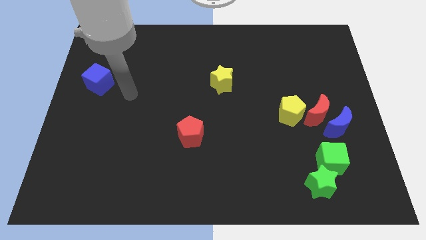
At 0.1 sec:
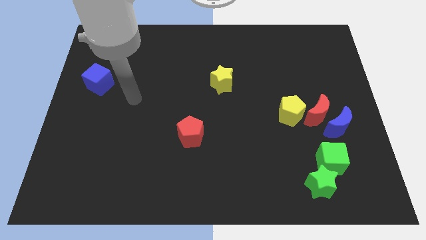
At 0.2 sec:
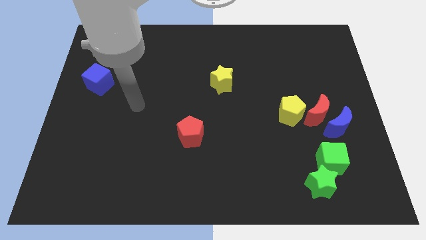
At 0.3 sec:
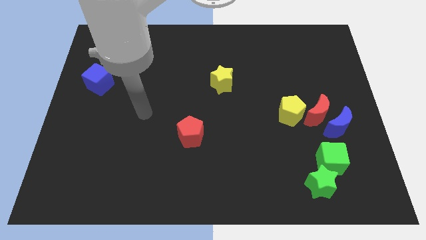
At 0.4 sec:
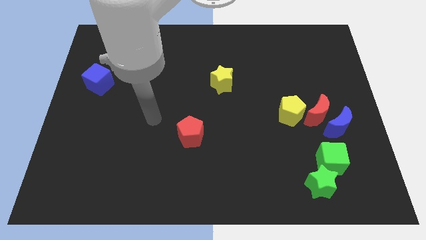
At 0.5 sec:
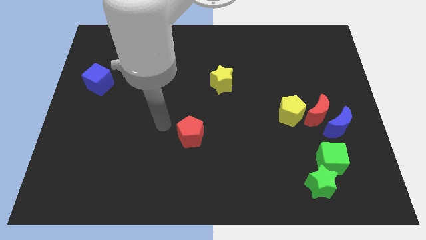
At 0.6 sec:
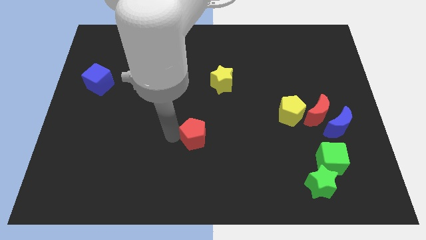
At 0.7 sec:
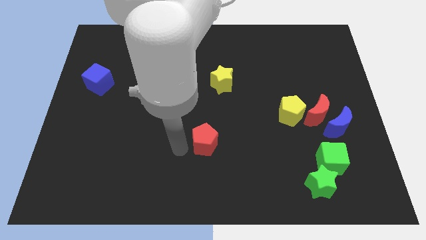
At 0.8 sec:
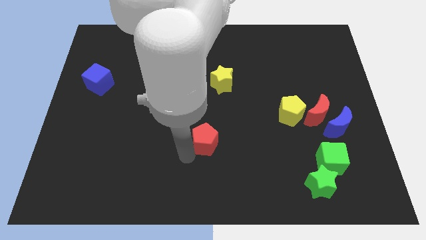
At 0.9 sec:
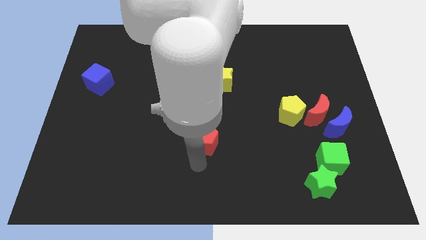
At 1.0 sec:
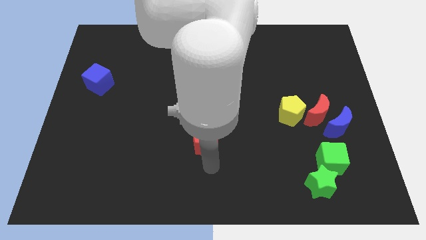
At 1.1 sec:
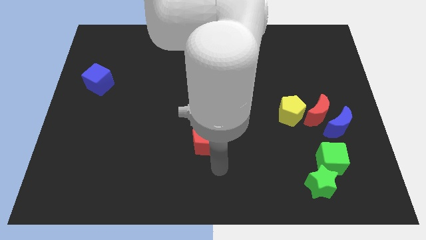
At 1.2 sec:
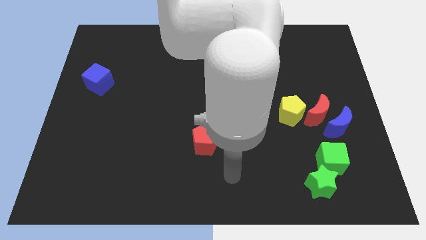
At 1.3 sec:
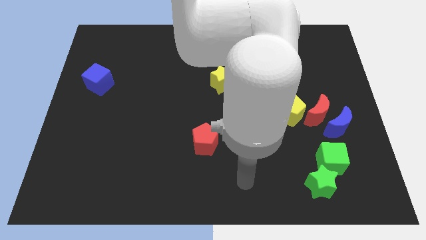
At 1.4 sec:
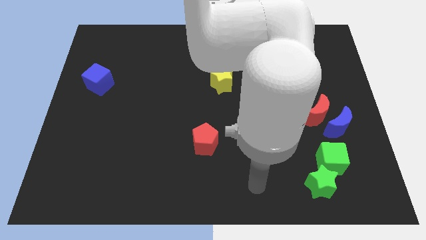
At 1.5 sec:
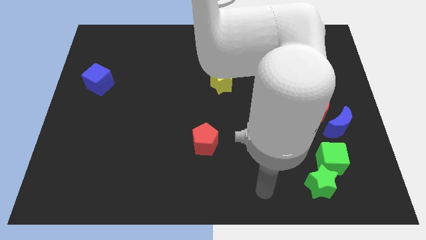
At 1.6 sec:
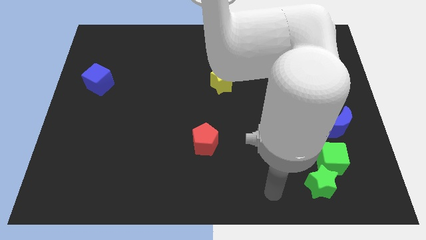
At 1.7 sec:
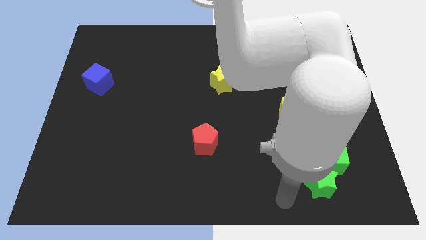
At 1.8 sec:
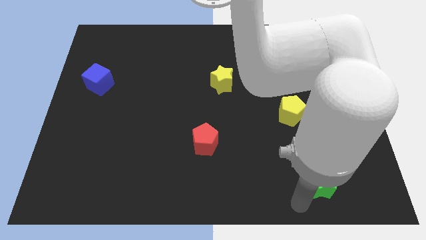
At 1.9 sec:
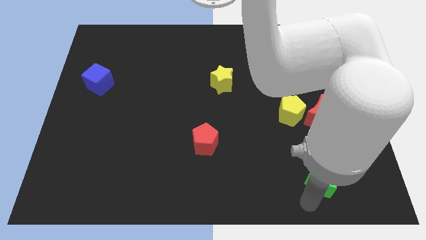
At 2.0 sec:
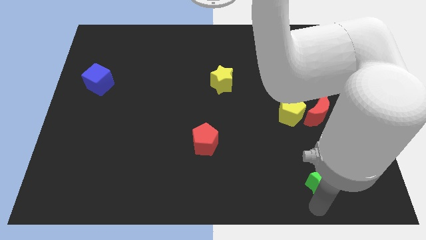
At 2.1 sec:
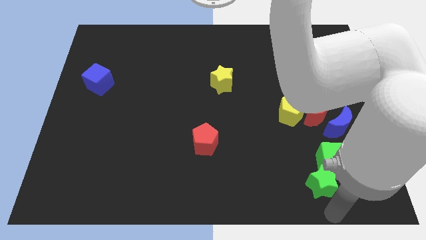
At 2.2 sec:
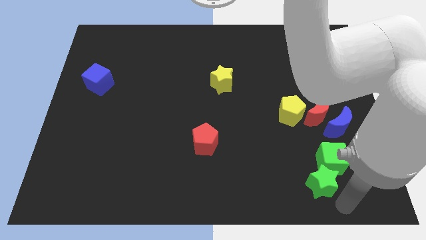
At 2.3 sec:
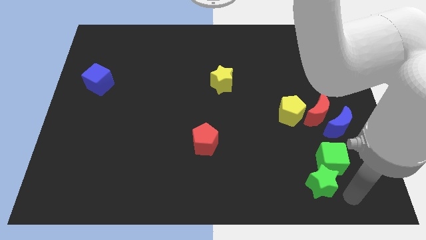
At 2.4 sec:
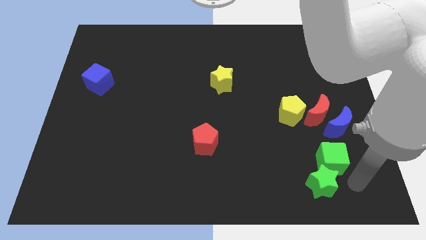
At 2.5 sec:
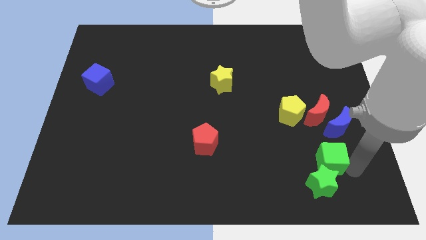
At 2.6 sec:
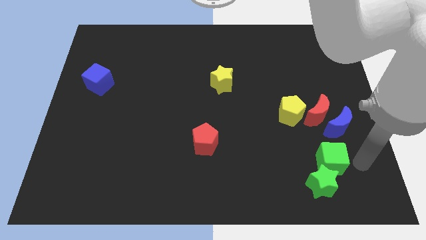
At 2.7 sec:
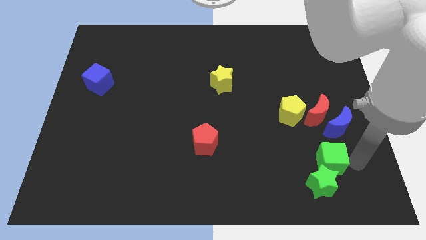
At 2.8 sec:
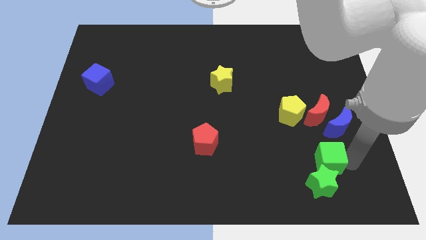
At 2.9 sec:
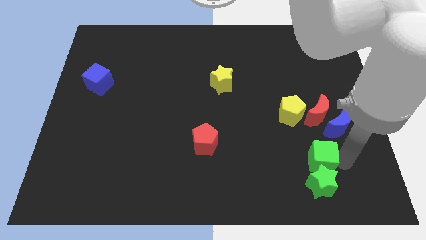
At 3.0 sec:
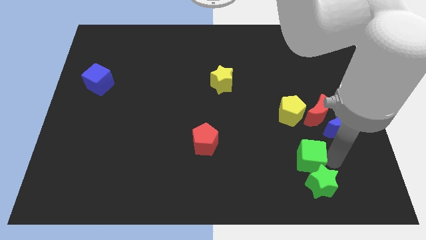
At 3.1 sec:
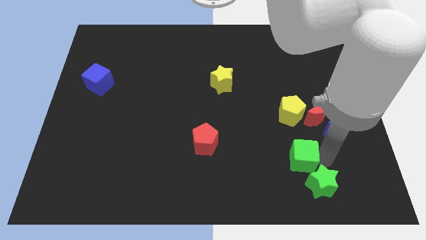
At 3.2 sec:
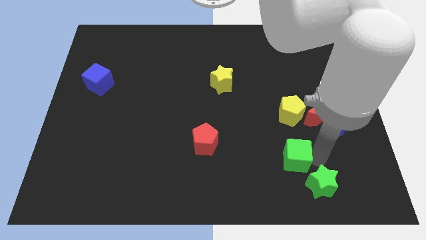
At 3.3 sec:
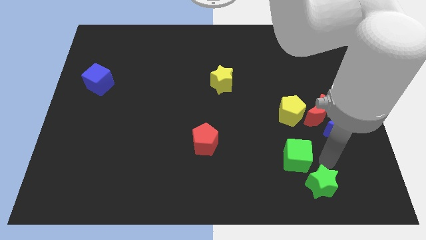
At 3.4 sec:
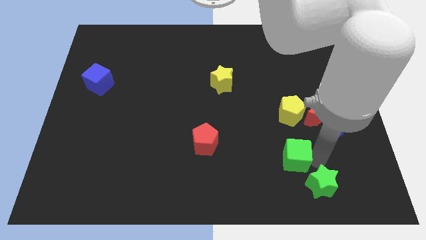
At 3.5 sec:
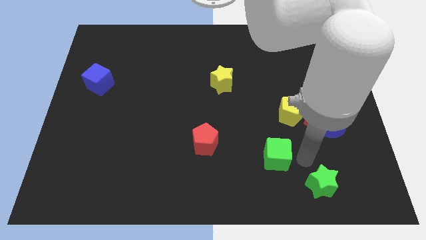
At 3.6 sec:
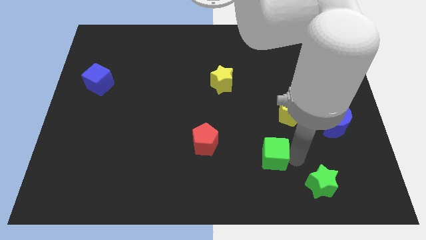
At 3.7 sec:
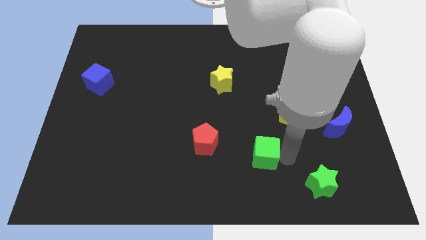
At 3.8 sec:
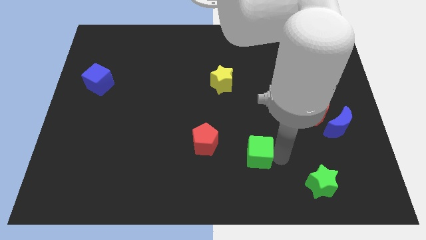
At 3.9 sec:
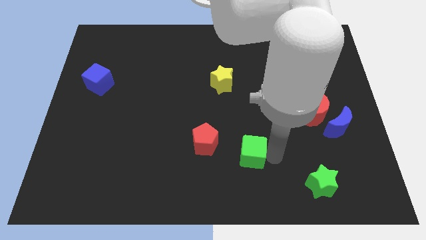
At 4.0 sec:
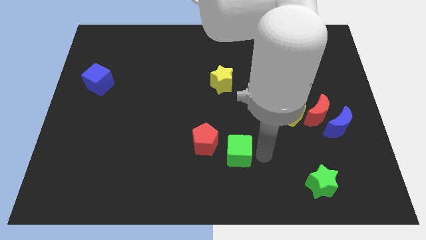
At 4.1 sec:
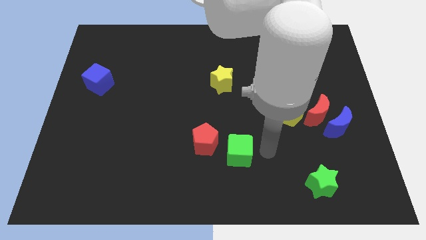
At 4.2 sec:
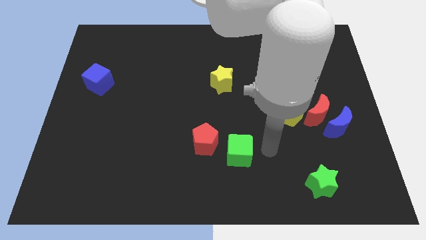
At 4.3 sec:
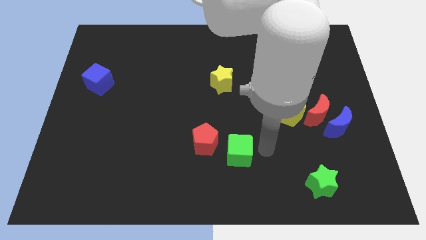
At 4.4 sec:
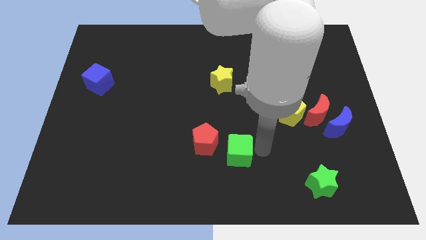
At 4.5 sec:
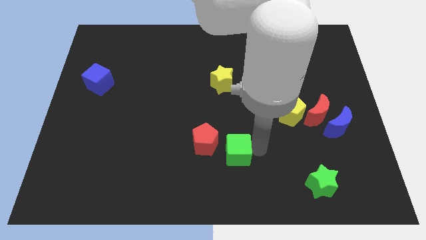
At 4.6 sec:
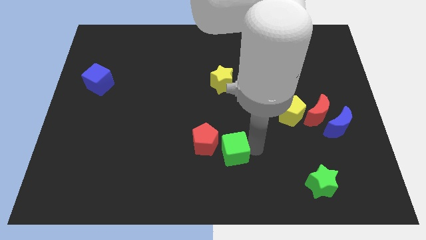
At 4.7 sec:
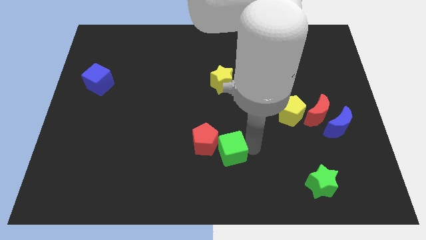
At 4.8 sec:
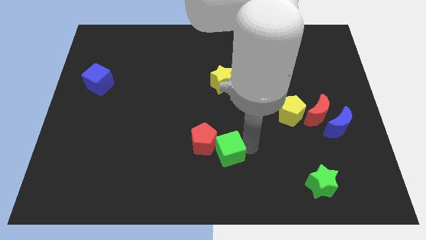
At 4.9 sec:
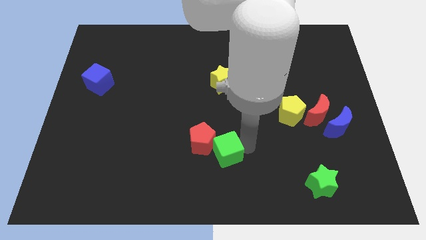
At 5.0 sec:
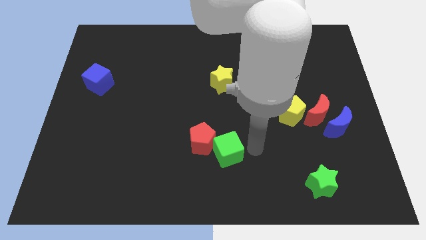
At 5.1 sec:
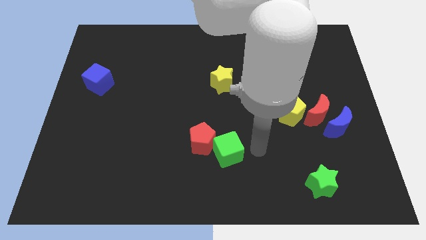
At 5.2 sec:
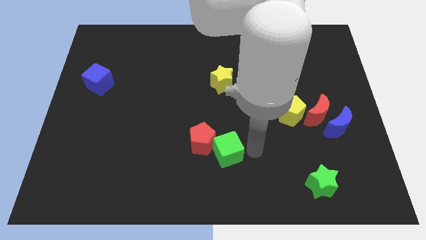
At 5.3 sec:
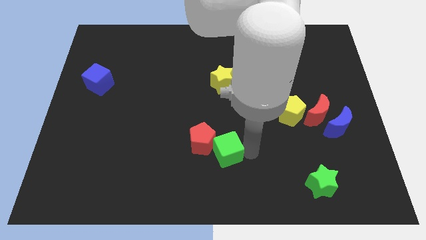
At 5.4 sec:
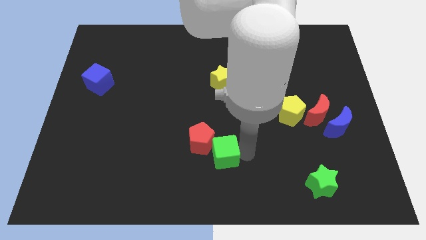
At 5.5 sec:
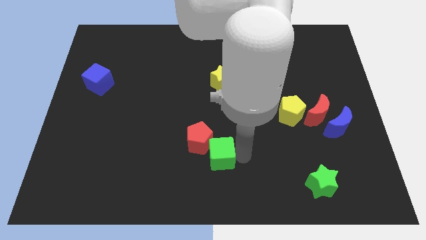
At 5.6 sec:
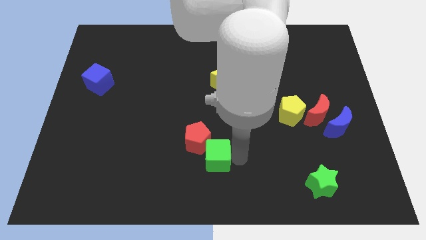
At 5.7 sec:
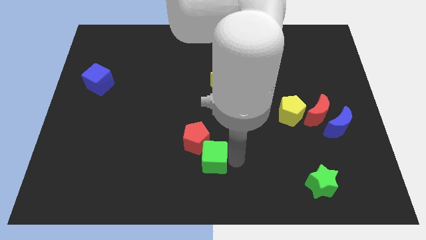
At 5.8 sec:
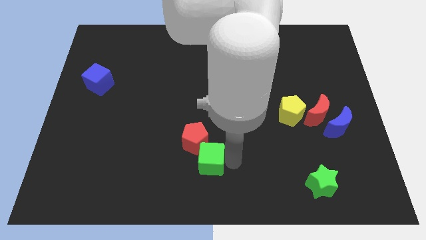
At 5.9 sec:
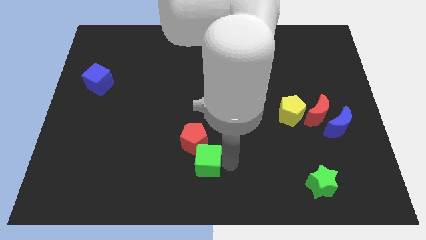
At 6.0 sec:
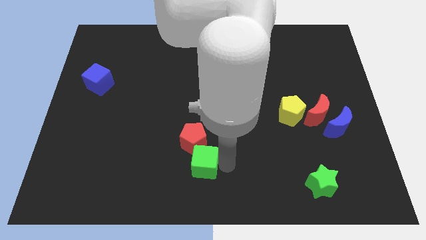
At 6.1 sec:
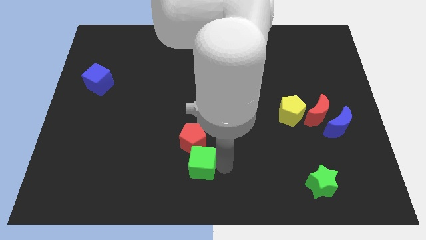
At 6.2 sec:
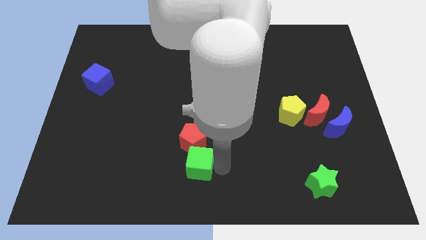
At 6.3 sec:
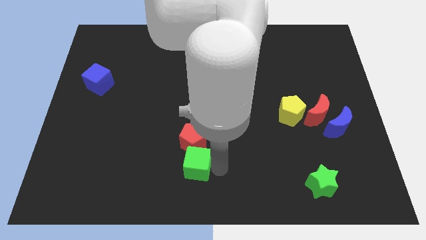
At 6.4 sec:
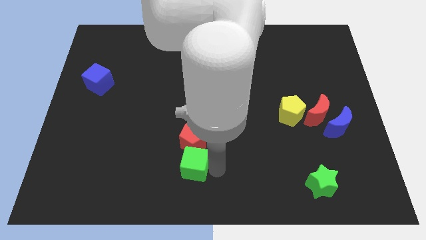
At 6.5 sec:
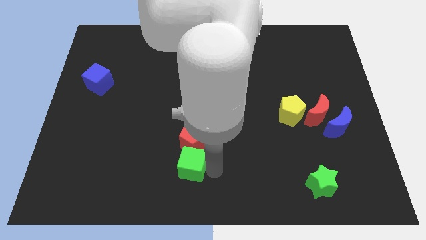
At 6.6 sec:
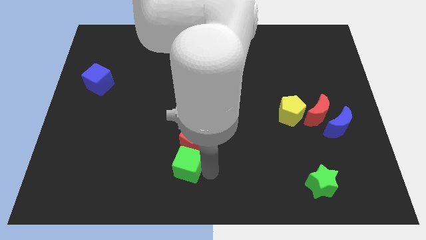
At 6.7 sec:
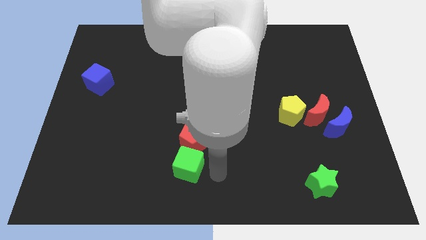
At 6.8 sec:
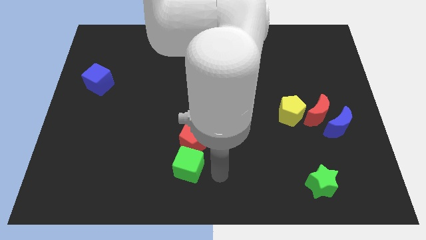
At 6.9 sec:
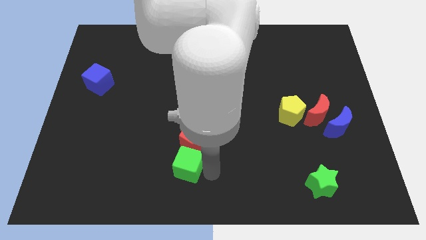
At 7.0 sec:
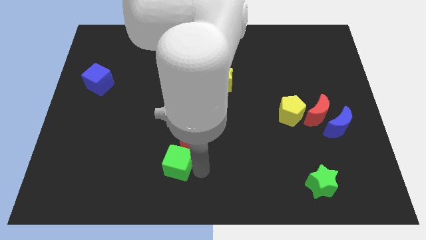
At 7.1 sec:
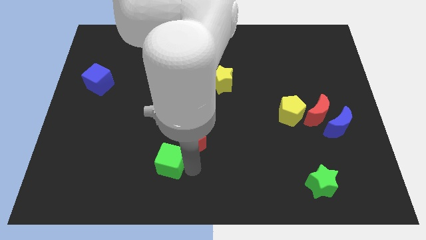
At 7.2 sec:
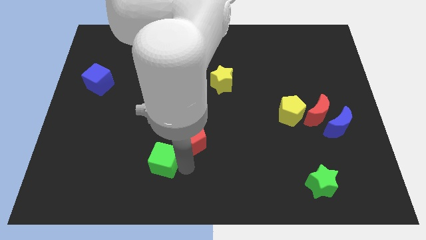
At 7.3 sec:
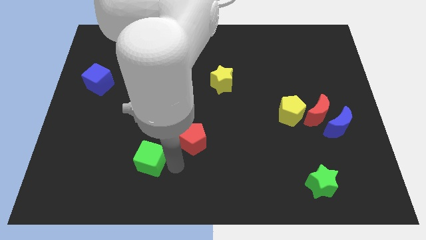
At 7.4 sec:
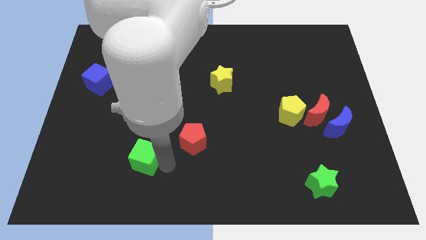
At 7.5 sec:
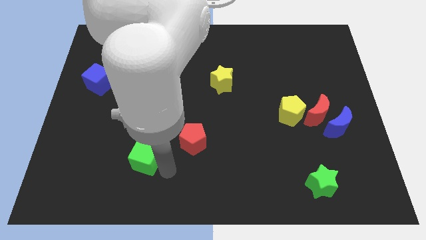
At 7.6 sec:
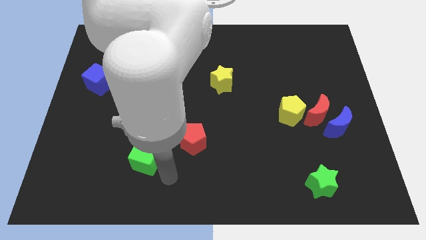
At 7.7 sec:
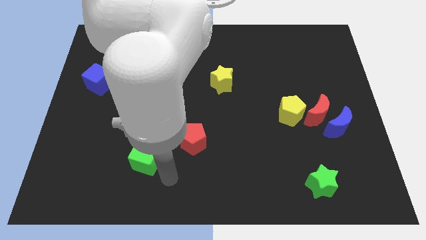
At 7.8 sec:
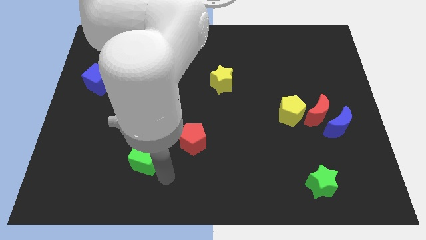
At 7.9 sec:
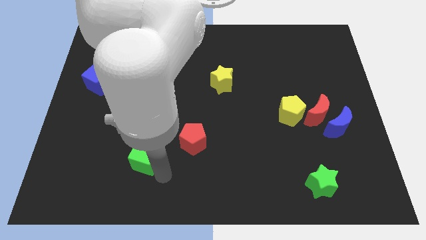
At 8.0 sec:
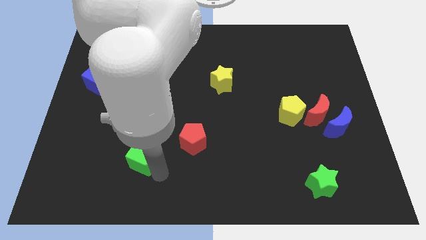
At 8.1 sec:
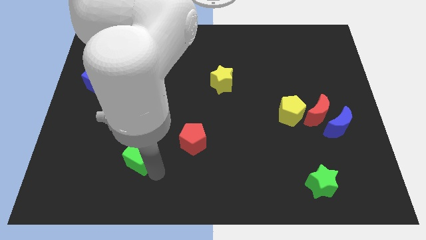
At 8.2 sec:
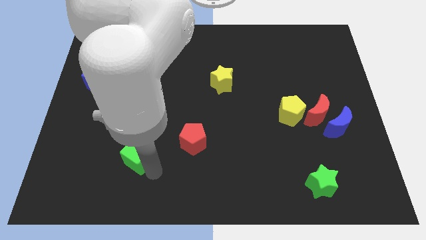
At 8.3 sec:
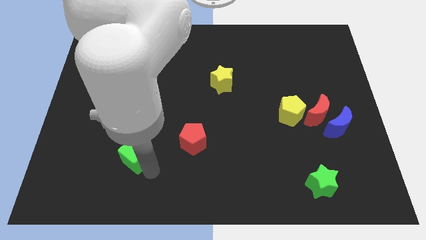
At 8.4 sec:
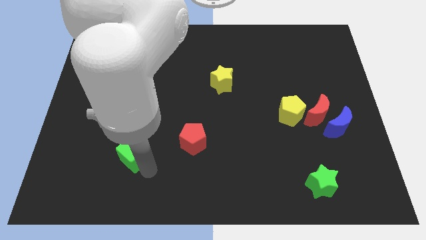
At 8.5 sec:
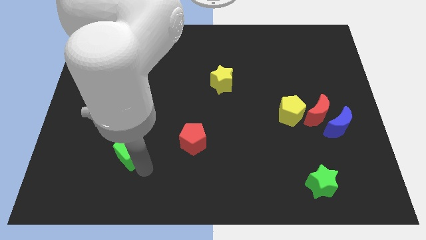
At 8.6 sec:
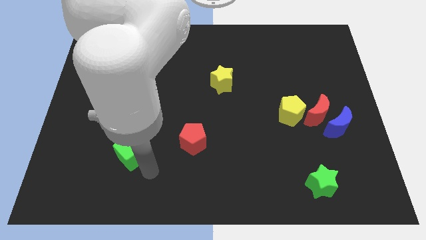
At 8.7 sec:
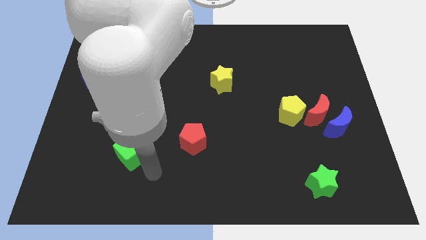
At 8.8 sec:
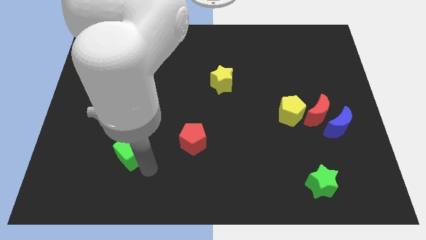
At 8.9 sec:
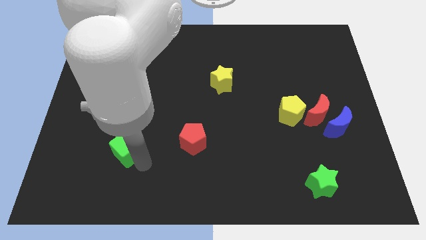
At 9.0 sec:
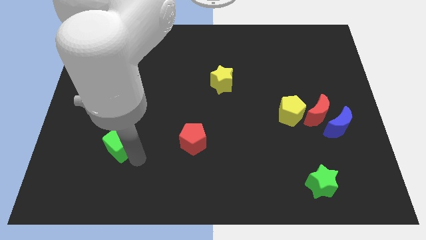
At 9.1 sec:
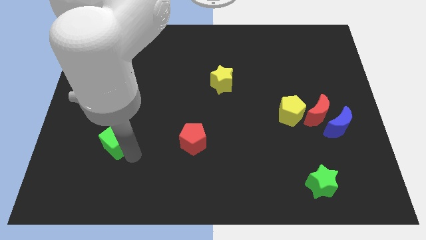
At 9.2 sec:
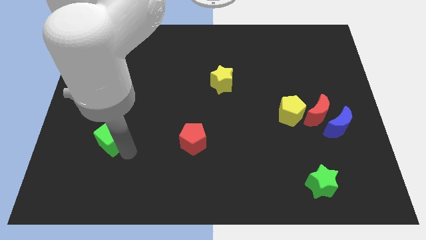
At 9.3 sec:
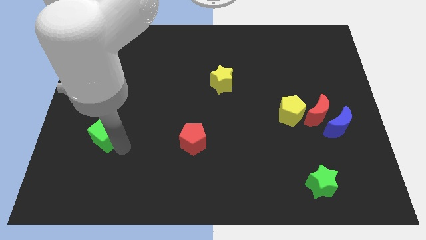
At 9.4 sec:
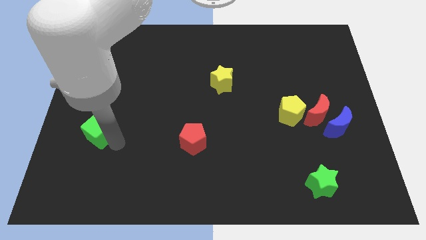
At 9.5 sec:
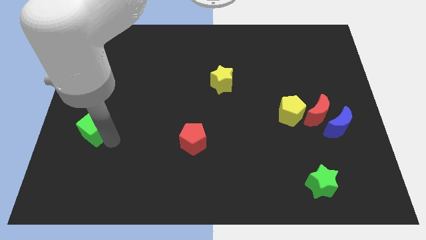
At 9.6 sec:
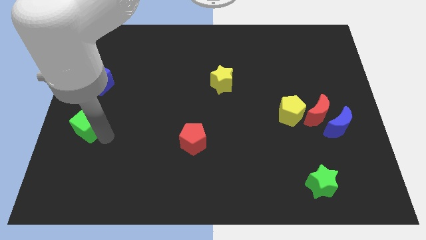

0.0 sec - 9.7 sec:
move the green cube to the left side of the board
